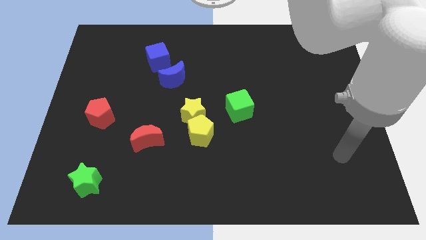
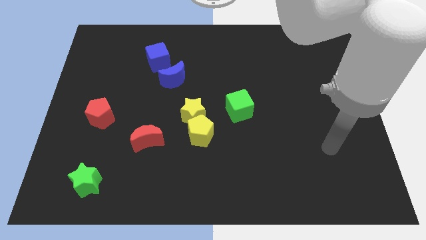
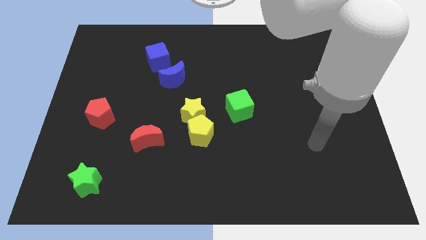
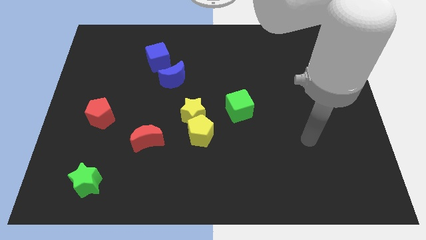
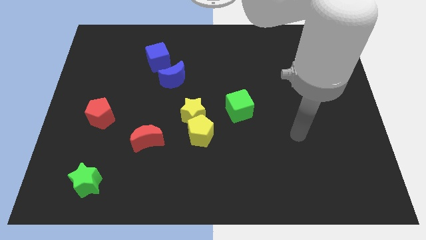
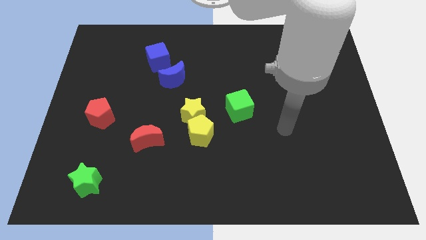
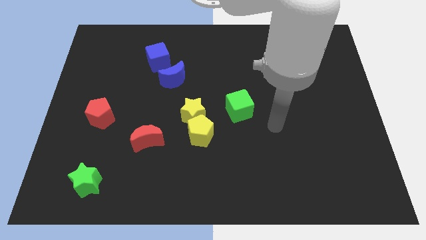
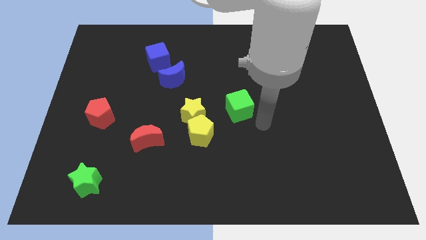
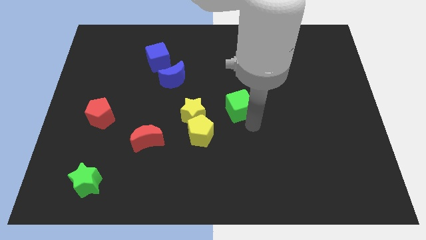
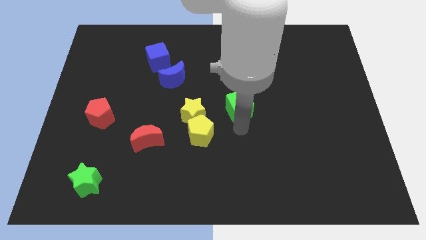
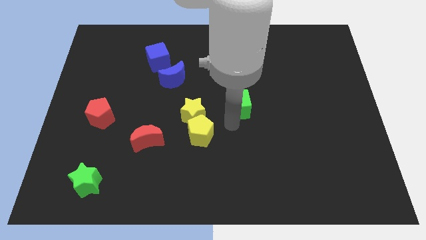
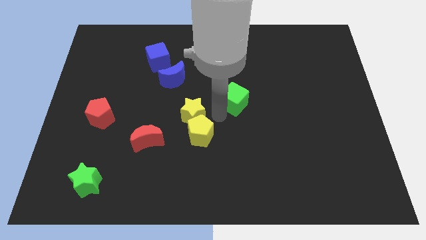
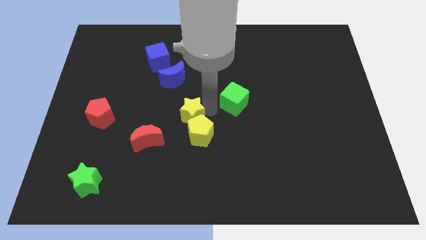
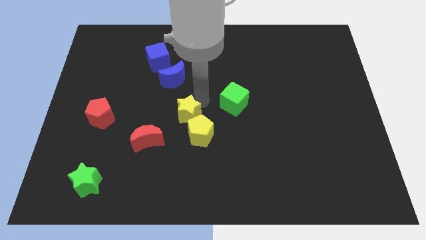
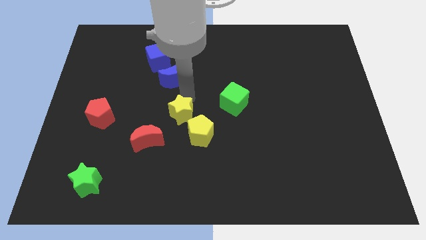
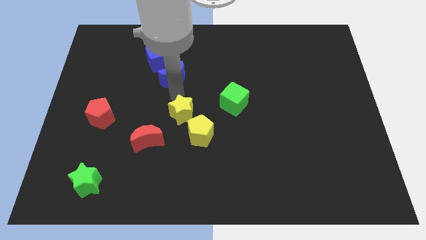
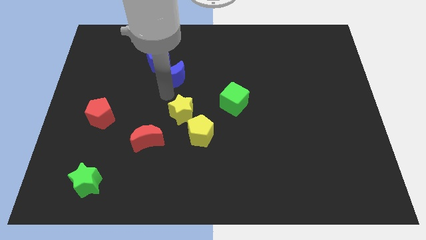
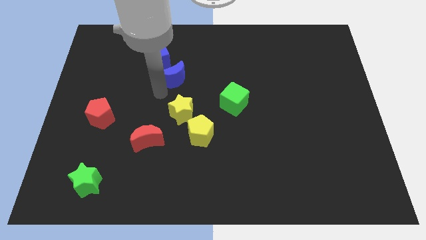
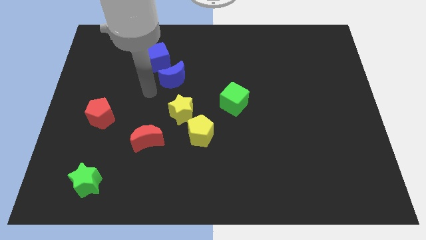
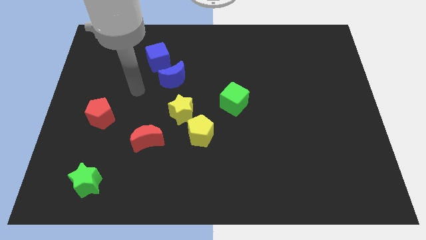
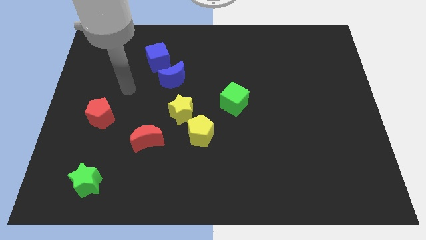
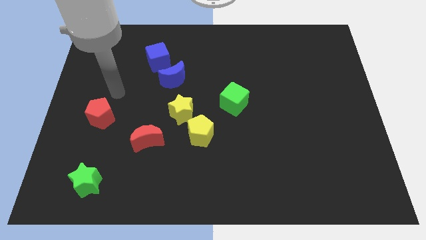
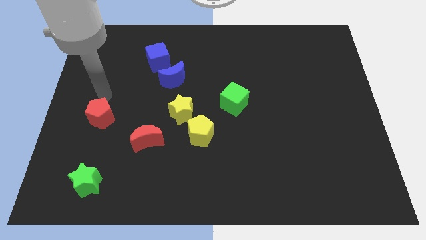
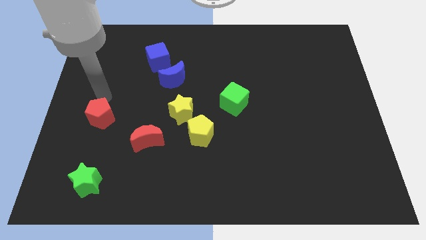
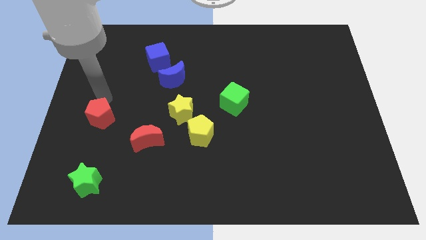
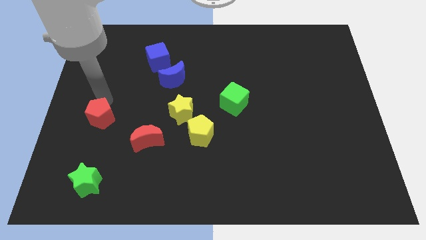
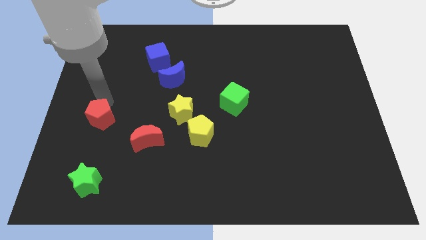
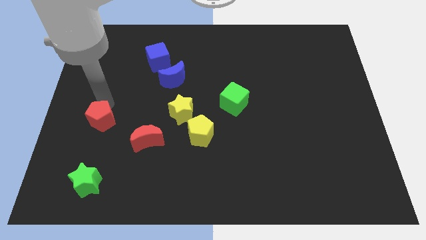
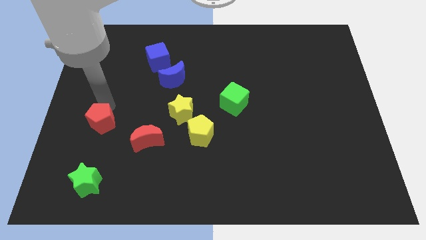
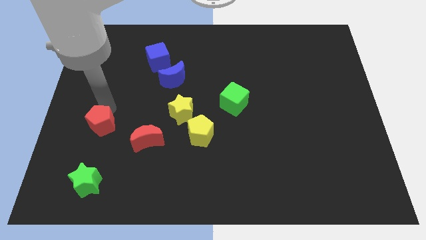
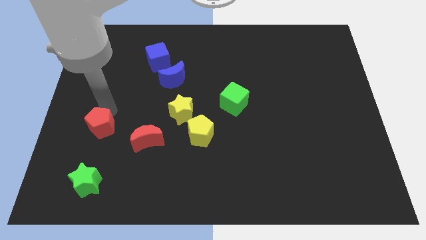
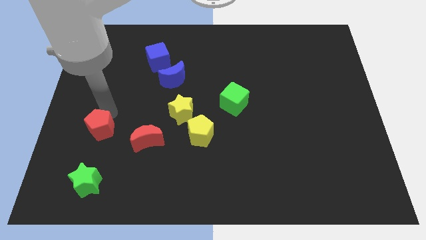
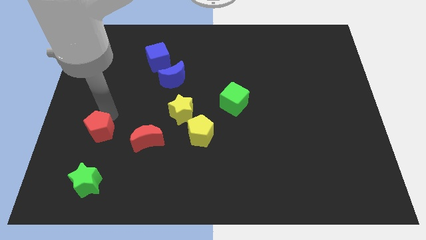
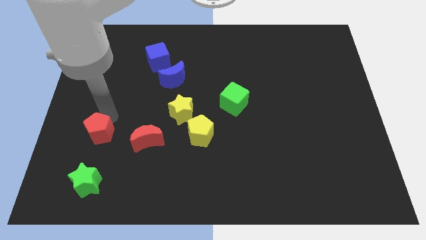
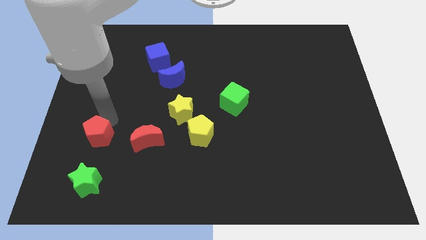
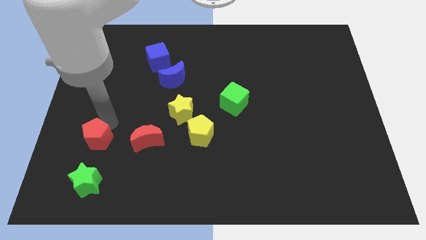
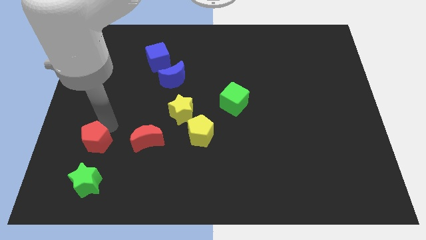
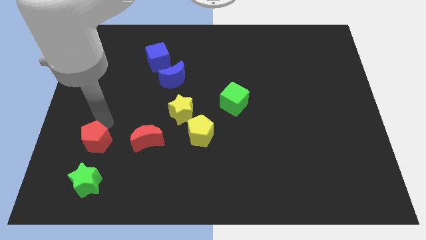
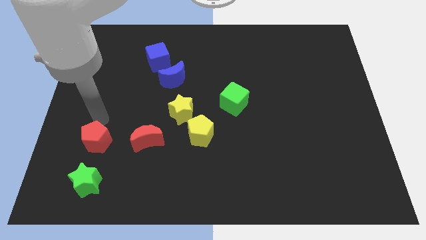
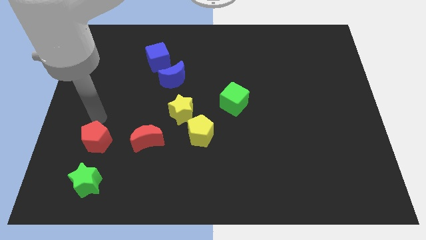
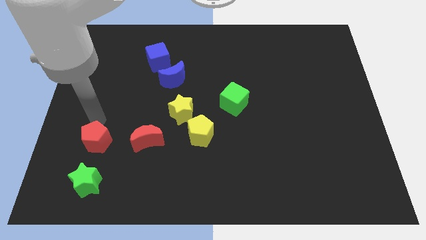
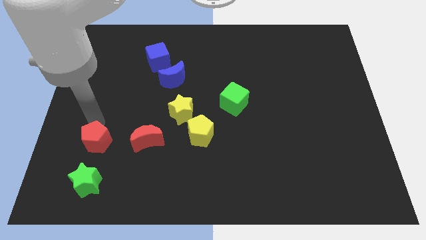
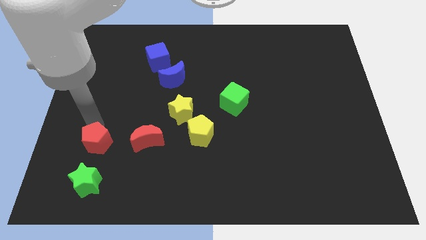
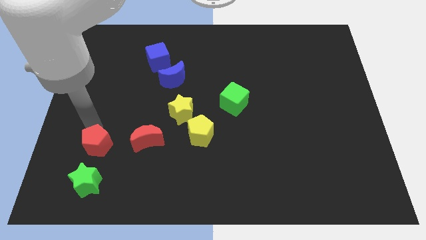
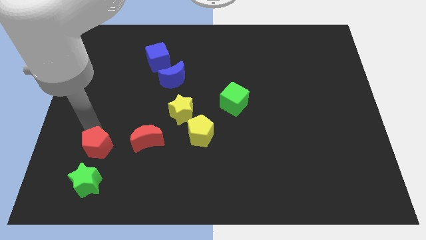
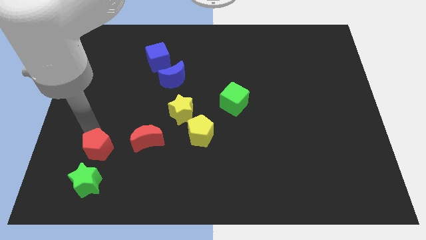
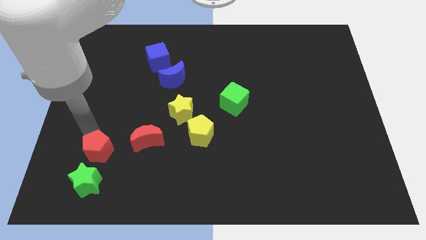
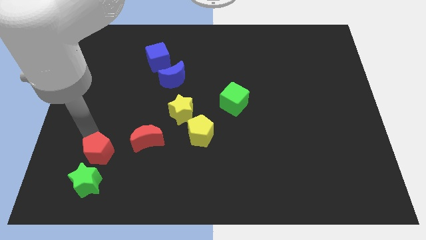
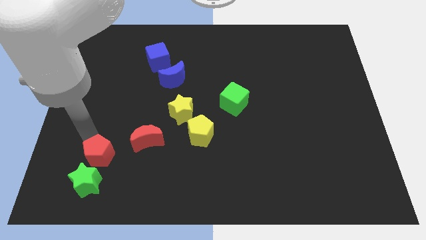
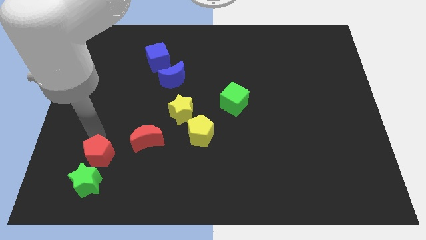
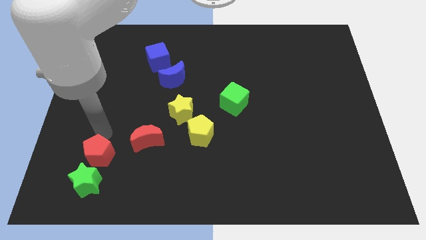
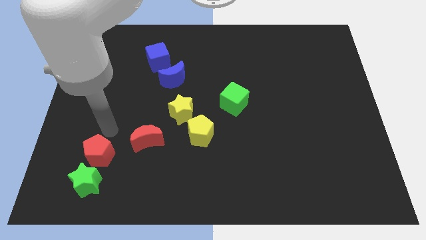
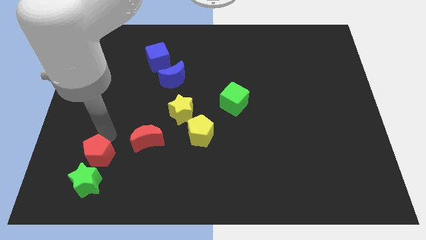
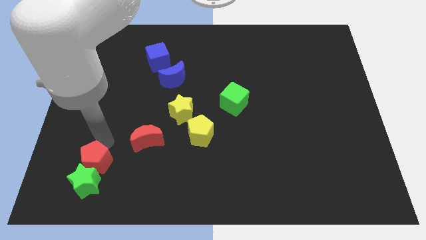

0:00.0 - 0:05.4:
move the red pentagon close to the green star

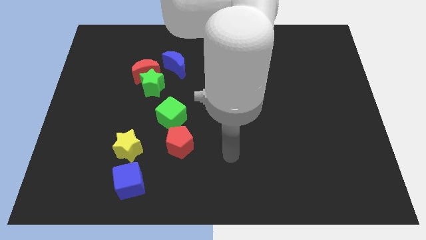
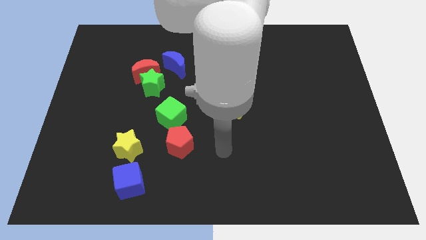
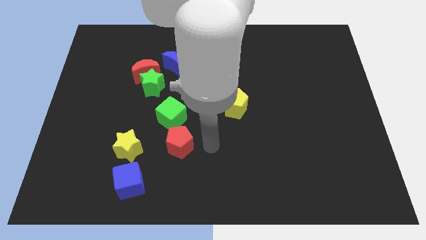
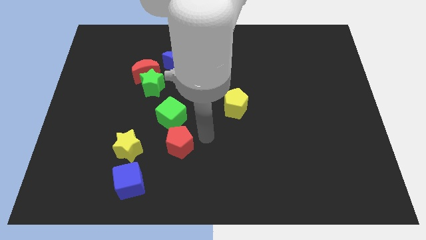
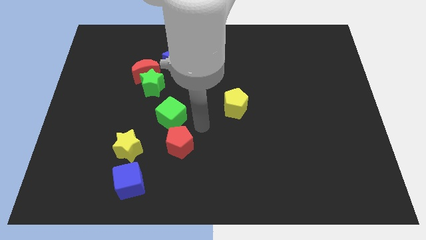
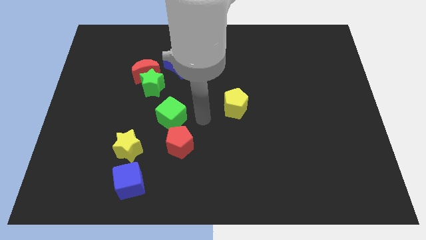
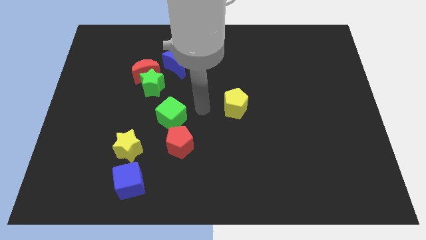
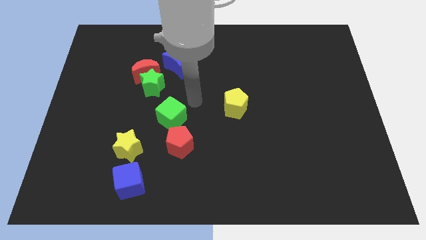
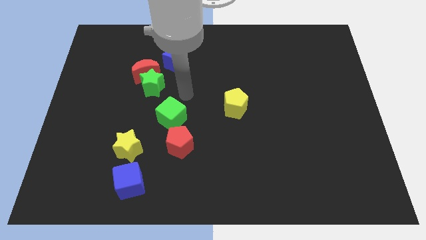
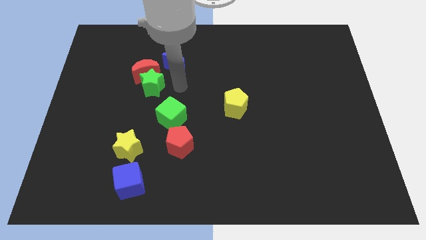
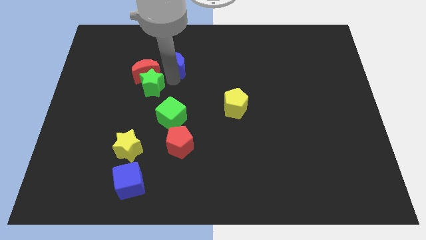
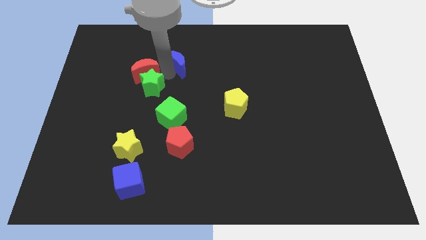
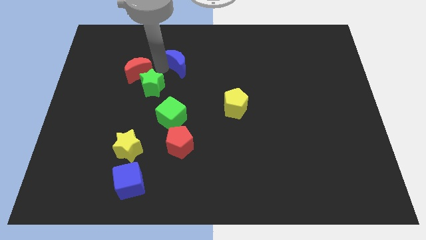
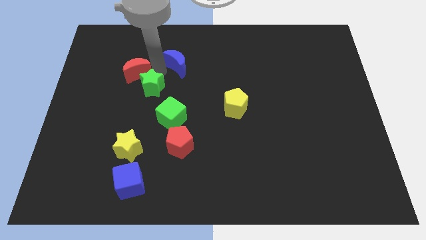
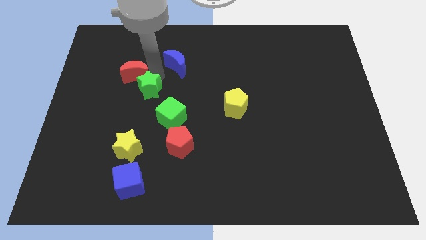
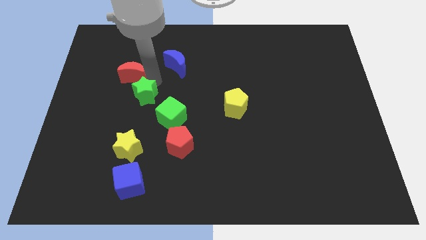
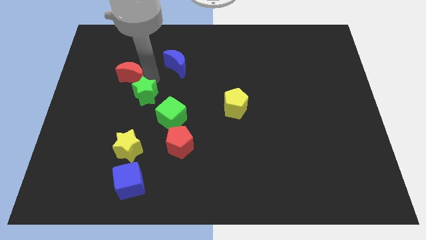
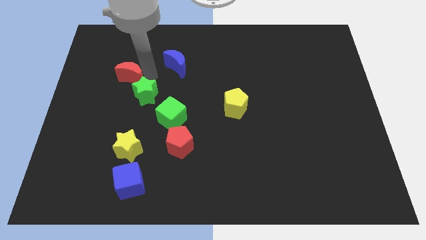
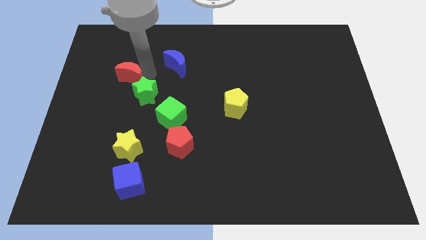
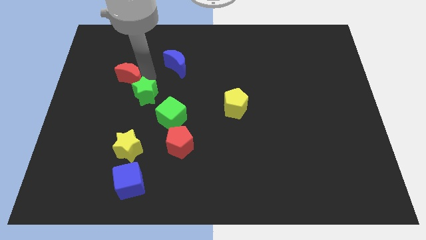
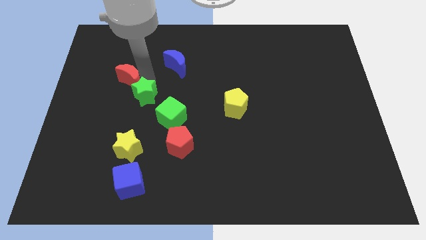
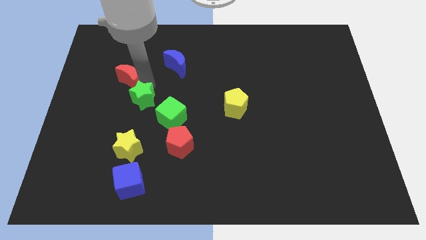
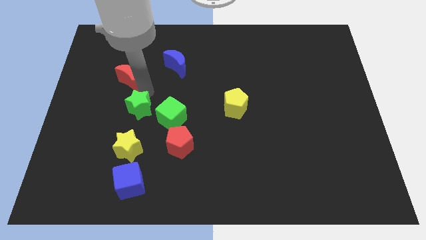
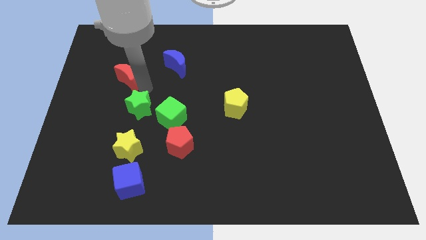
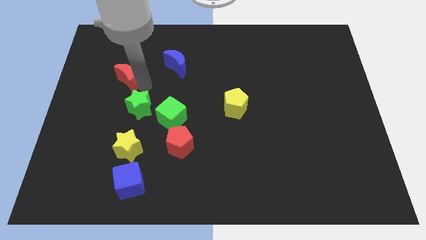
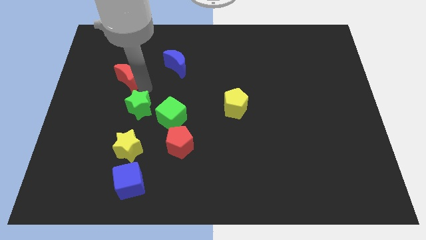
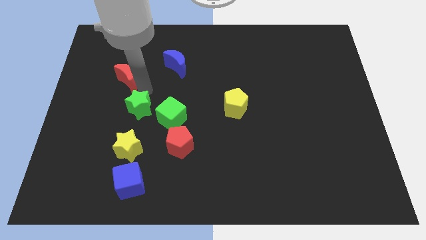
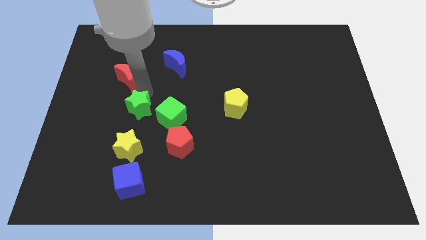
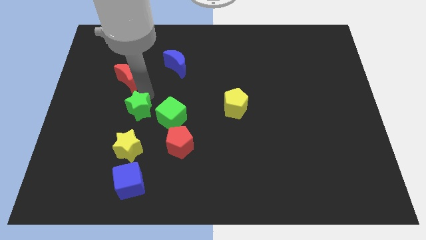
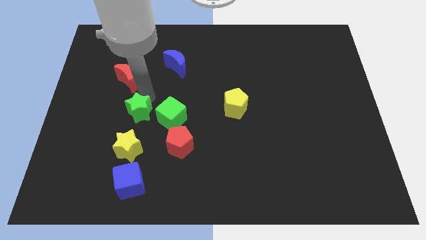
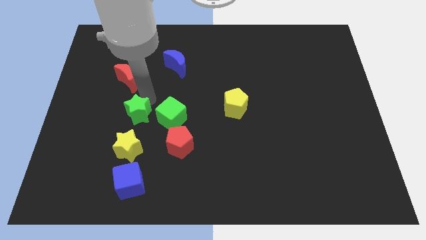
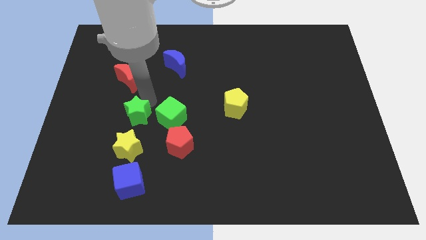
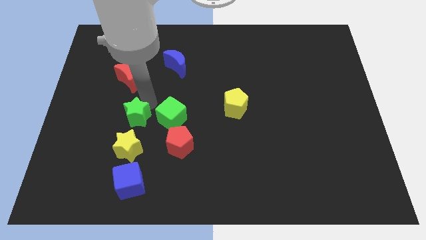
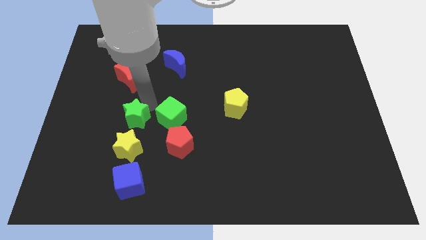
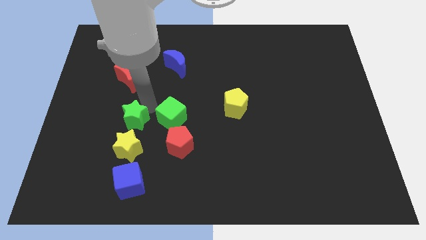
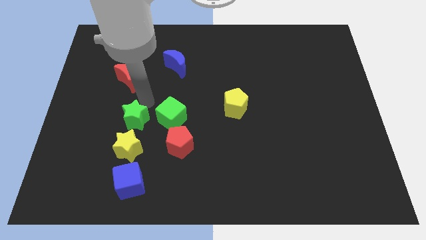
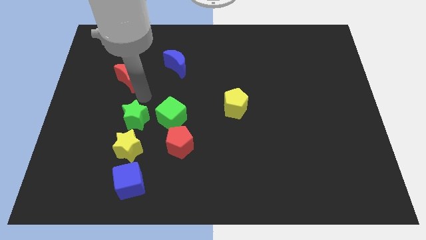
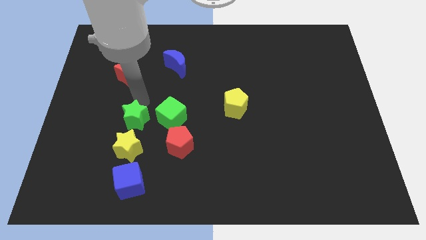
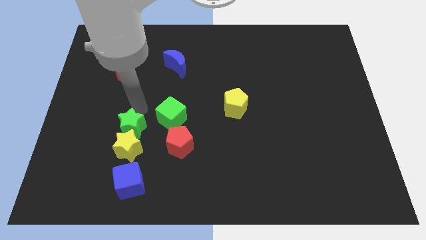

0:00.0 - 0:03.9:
put the green star close to the yellow star
